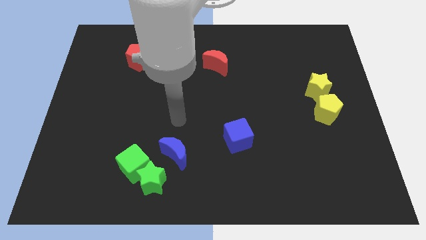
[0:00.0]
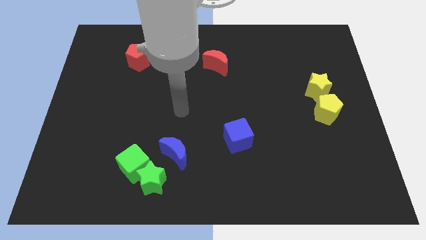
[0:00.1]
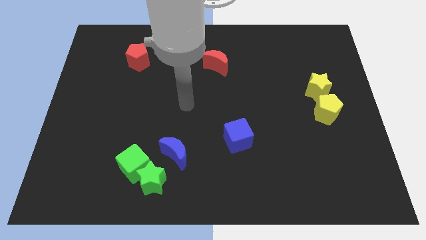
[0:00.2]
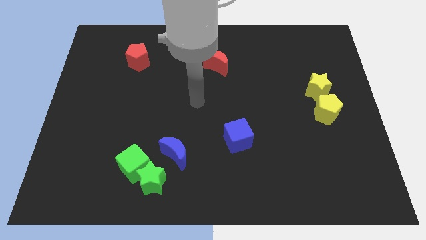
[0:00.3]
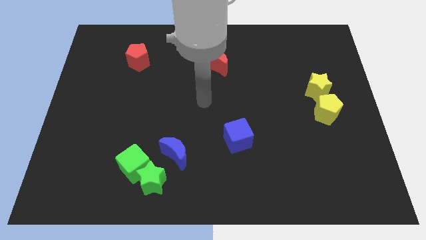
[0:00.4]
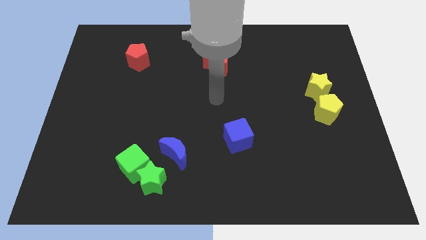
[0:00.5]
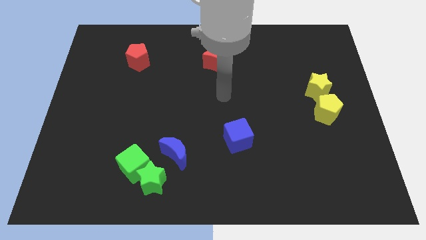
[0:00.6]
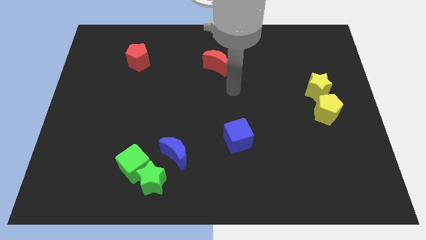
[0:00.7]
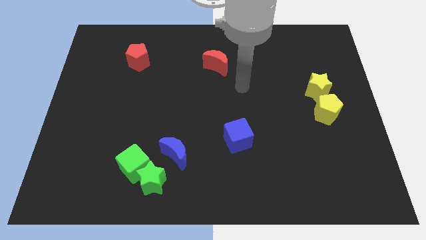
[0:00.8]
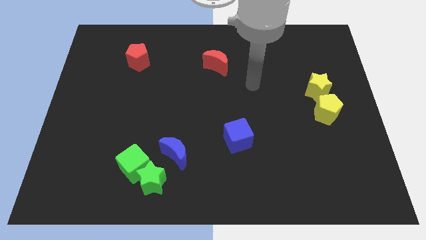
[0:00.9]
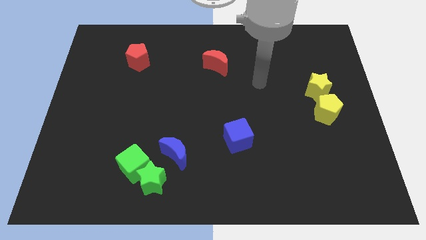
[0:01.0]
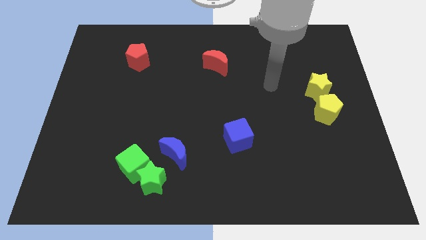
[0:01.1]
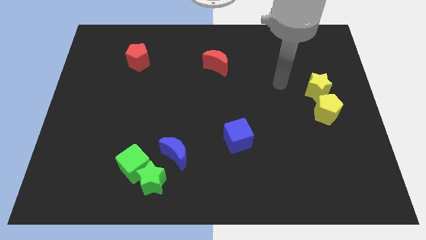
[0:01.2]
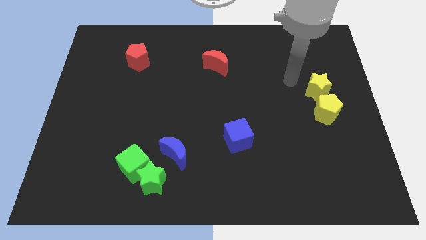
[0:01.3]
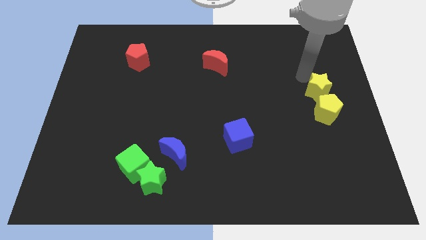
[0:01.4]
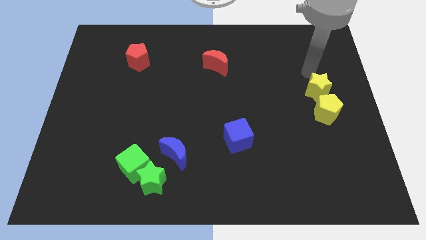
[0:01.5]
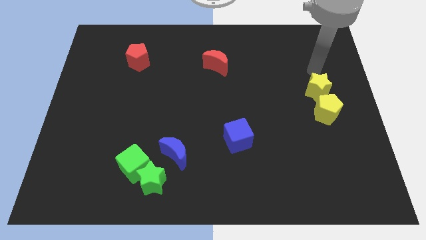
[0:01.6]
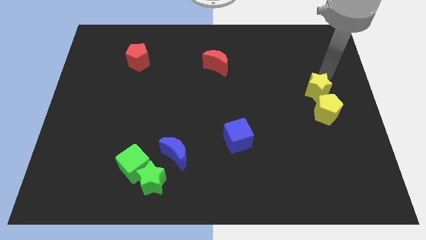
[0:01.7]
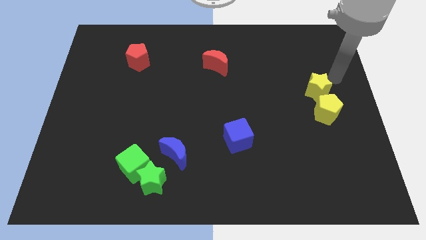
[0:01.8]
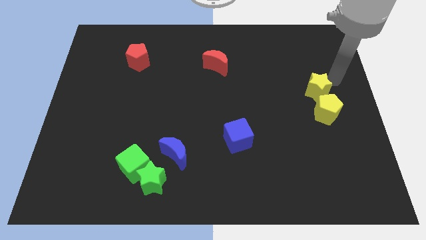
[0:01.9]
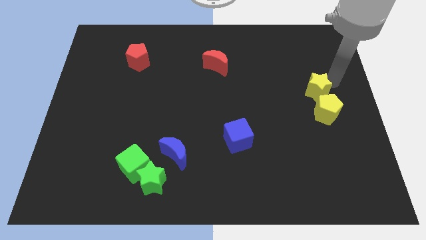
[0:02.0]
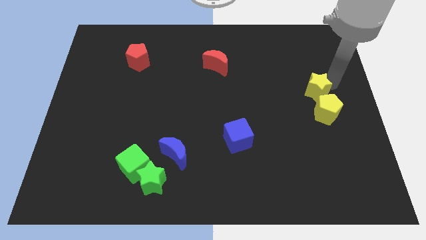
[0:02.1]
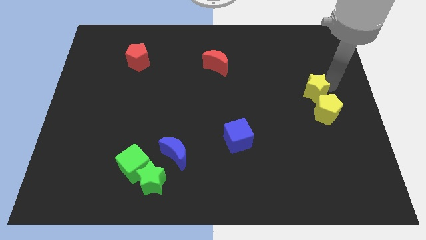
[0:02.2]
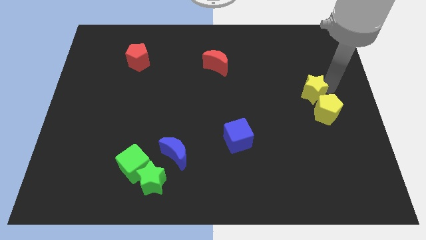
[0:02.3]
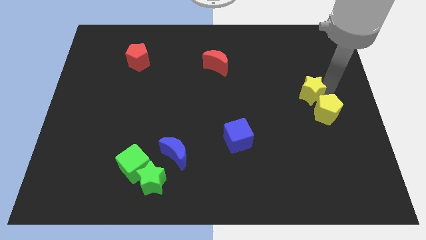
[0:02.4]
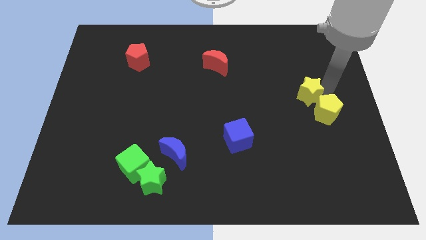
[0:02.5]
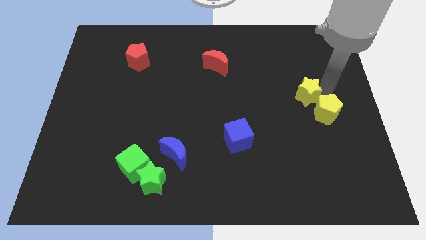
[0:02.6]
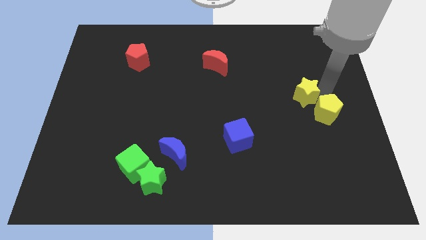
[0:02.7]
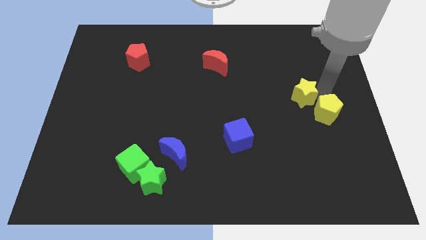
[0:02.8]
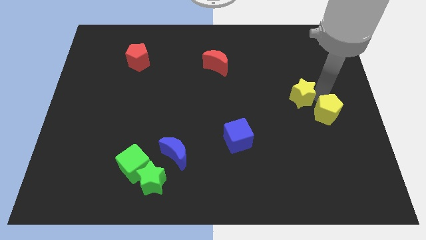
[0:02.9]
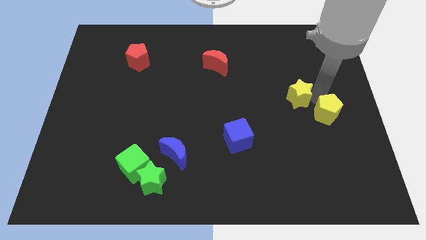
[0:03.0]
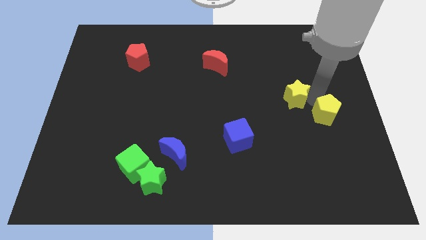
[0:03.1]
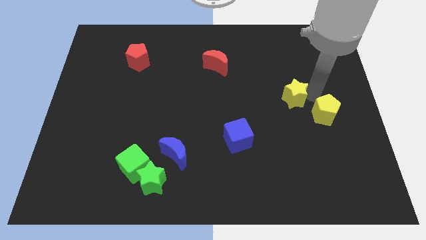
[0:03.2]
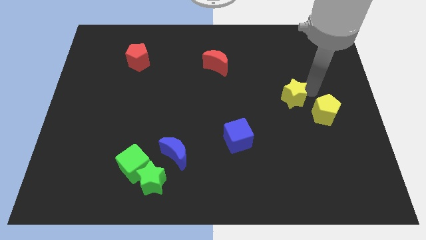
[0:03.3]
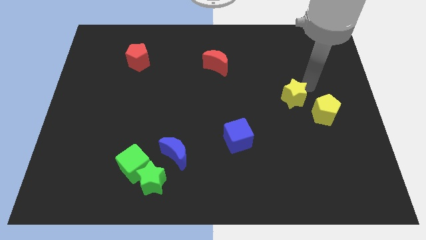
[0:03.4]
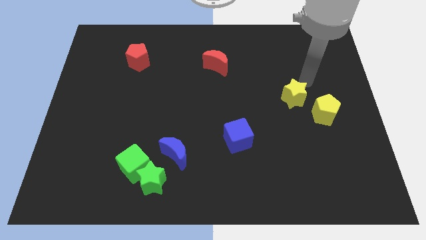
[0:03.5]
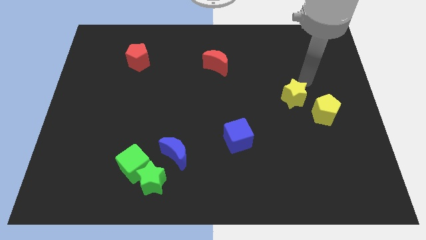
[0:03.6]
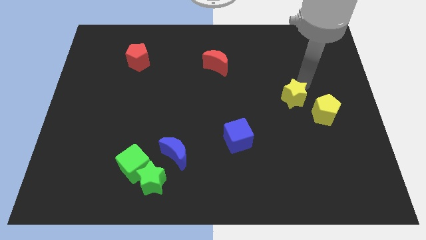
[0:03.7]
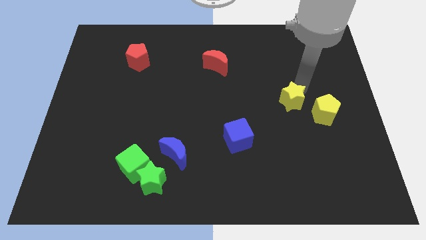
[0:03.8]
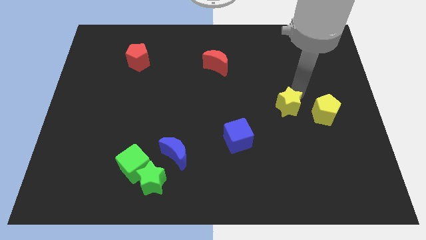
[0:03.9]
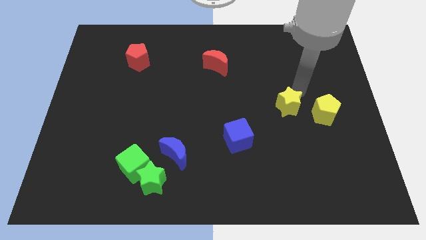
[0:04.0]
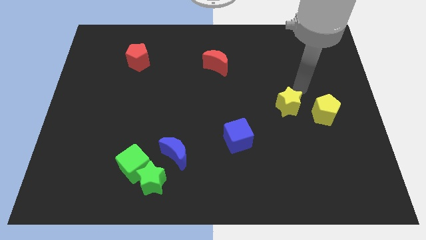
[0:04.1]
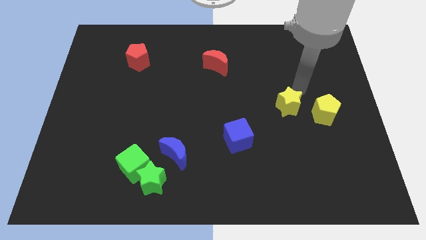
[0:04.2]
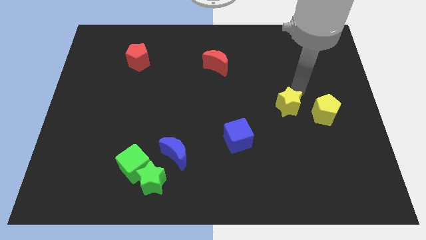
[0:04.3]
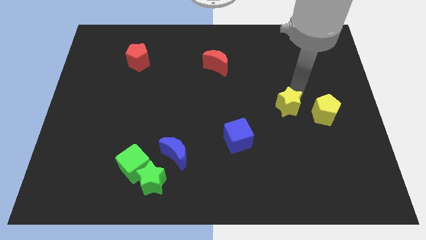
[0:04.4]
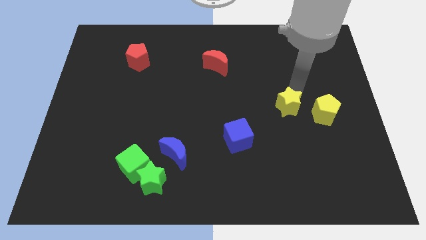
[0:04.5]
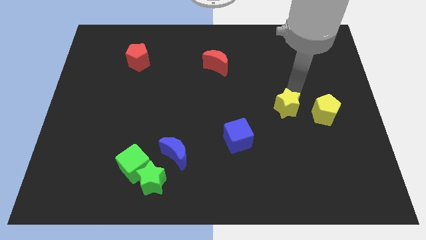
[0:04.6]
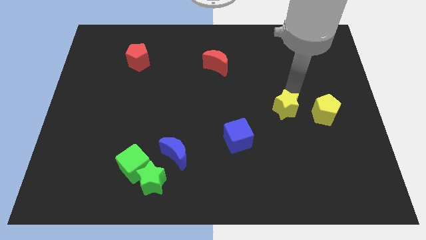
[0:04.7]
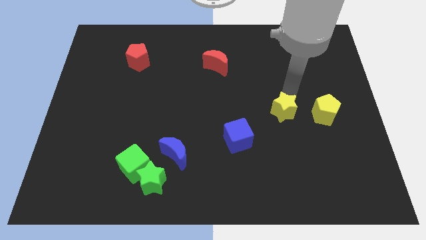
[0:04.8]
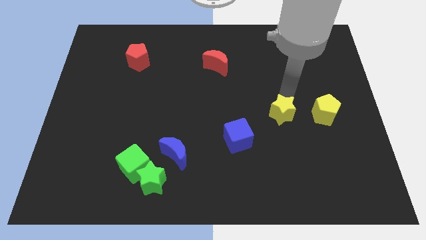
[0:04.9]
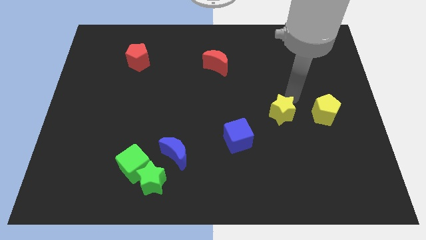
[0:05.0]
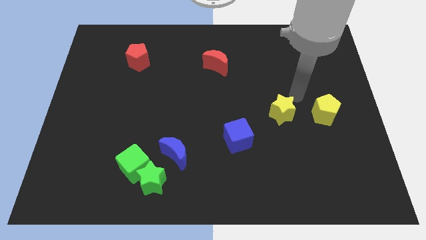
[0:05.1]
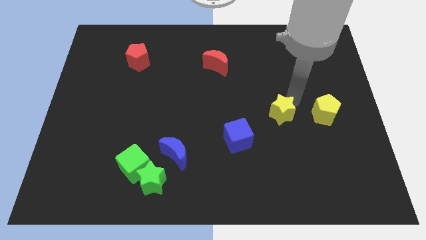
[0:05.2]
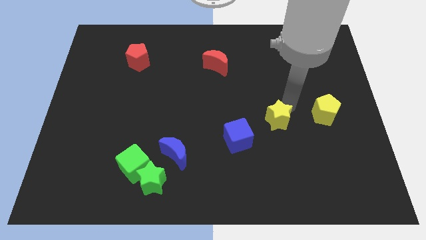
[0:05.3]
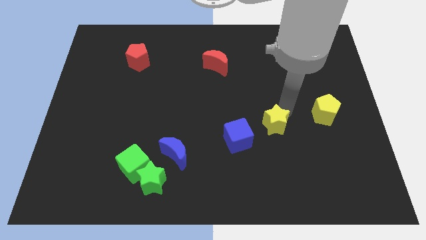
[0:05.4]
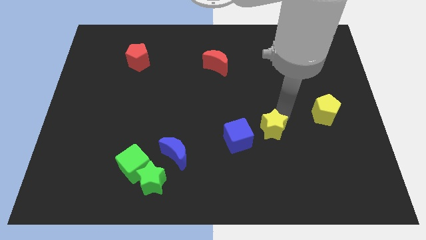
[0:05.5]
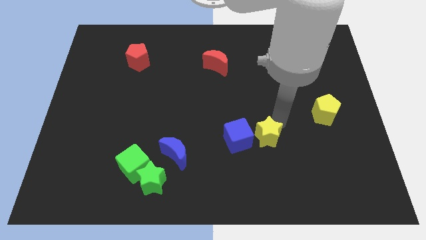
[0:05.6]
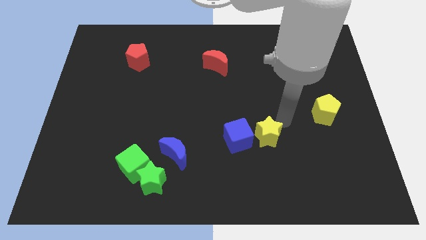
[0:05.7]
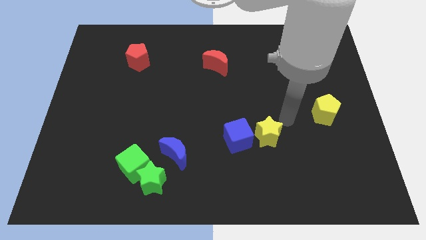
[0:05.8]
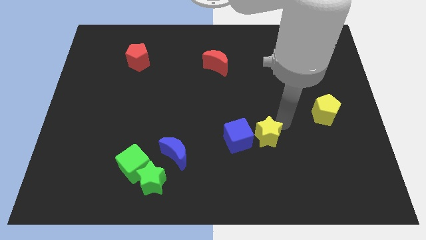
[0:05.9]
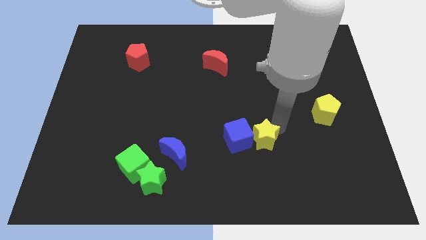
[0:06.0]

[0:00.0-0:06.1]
push the yellow star down and to the left diagonally

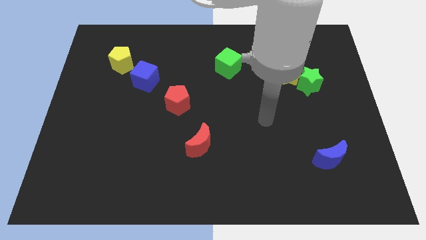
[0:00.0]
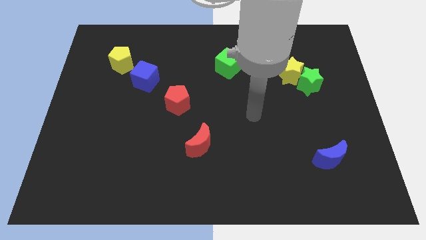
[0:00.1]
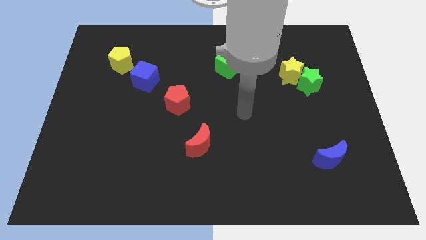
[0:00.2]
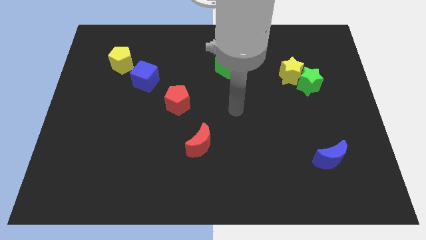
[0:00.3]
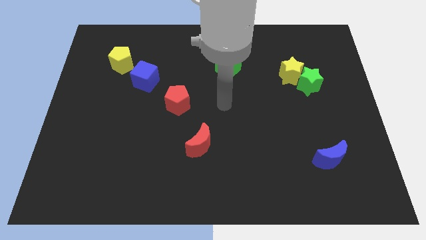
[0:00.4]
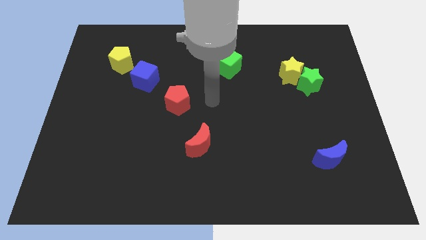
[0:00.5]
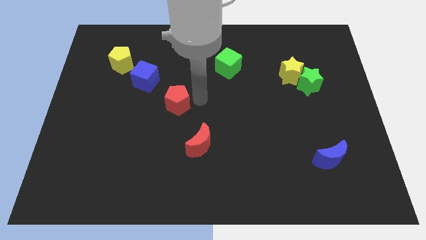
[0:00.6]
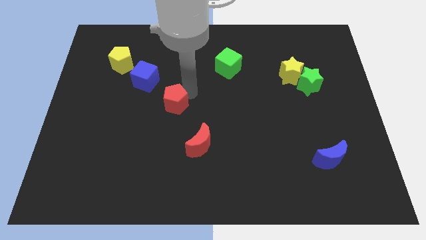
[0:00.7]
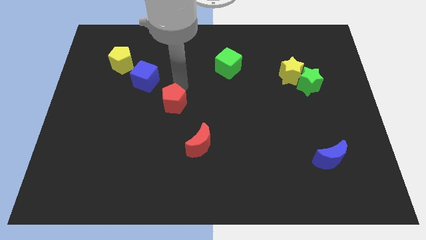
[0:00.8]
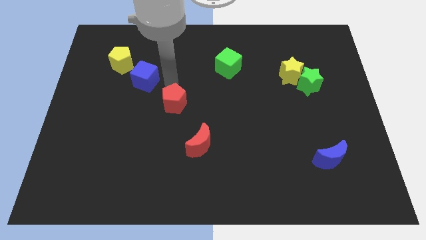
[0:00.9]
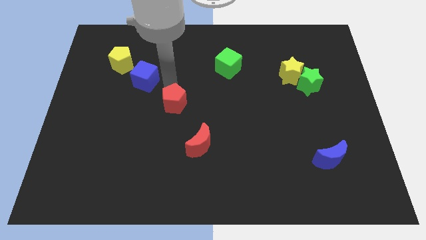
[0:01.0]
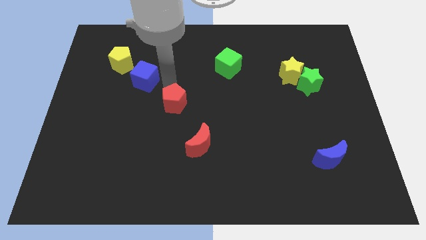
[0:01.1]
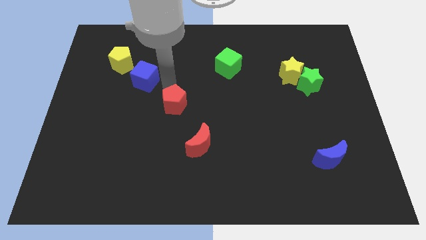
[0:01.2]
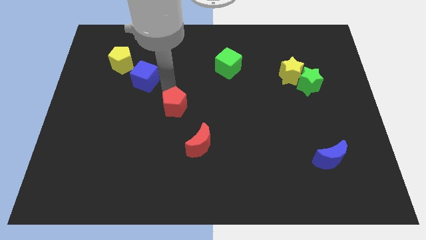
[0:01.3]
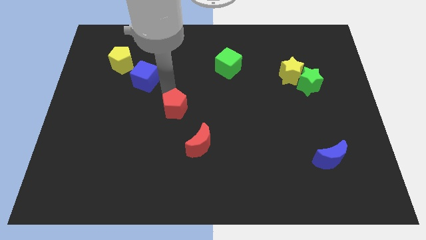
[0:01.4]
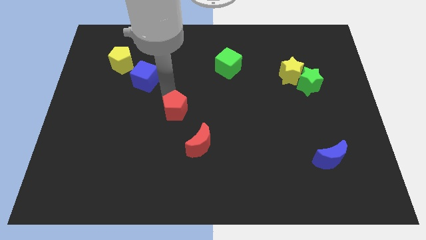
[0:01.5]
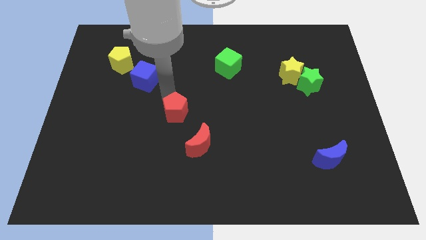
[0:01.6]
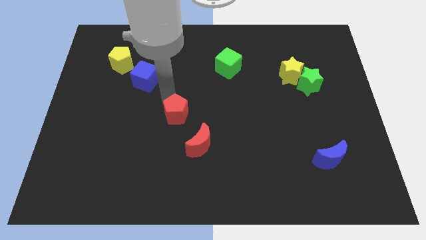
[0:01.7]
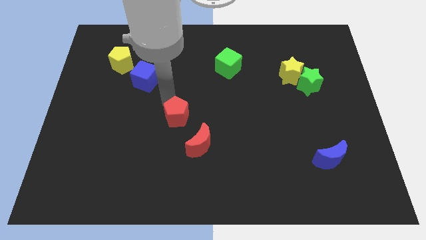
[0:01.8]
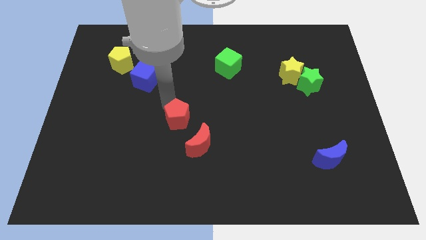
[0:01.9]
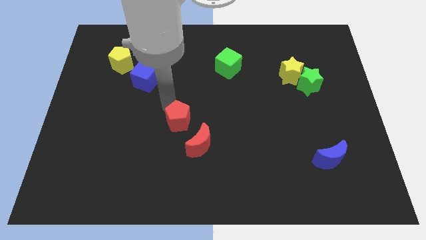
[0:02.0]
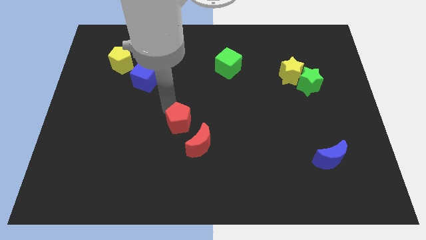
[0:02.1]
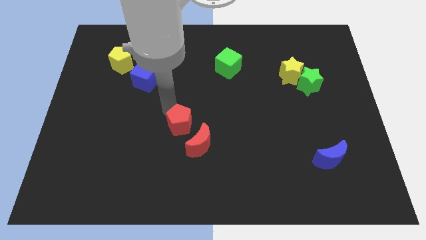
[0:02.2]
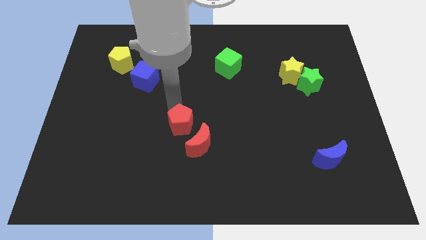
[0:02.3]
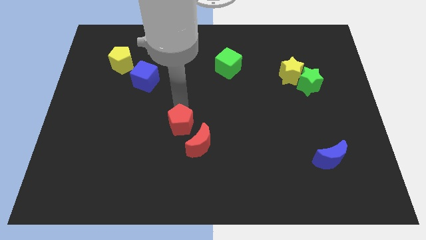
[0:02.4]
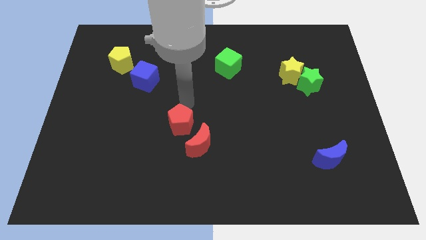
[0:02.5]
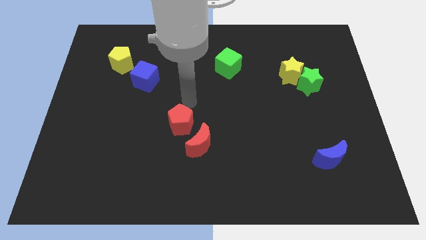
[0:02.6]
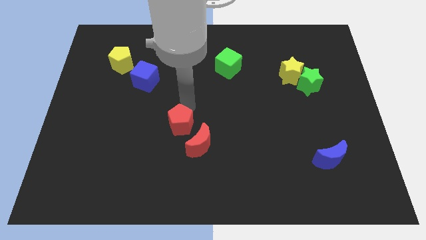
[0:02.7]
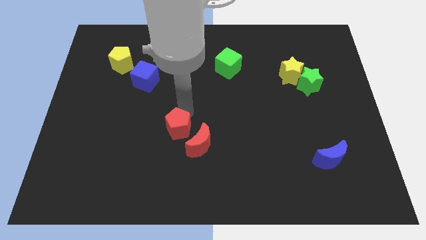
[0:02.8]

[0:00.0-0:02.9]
slightly slide the red pentagon down
